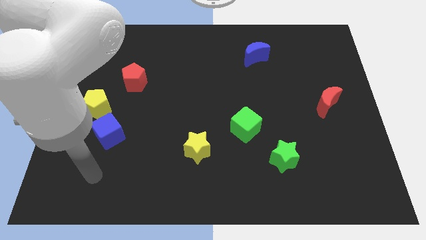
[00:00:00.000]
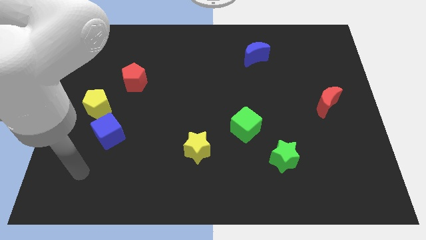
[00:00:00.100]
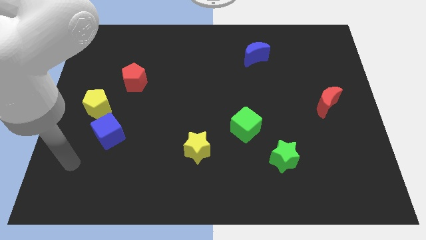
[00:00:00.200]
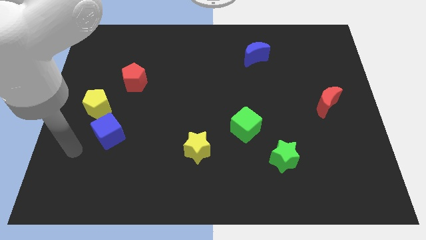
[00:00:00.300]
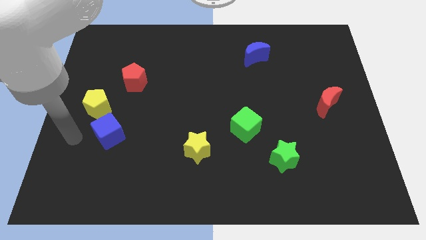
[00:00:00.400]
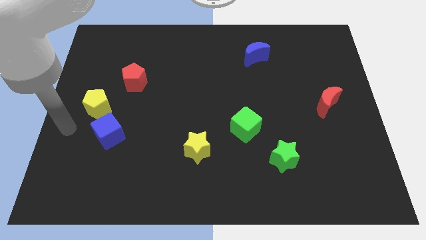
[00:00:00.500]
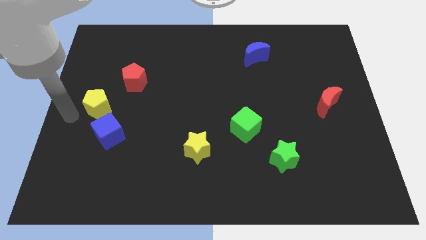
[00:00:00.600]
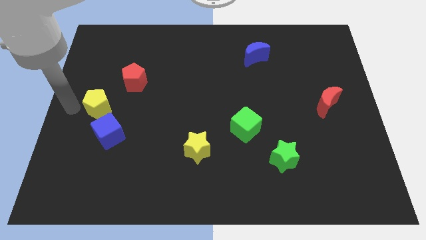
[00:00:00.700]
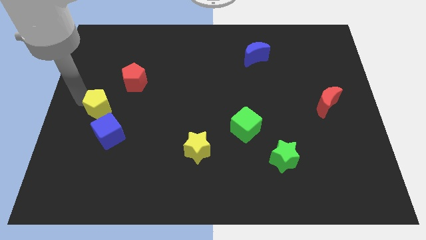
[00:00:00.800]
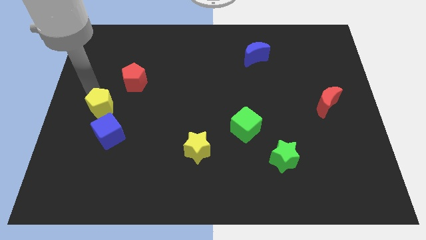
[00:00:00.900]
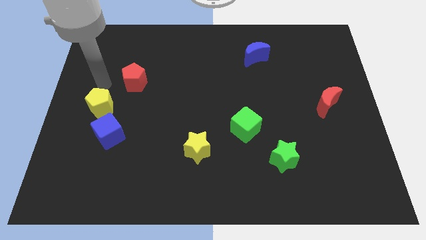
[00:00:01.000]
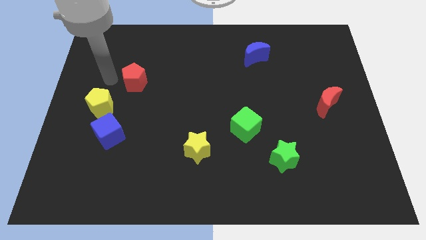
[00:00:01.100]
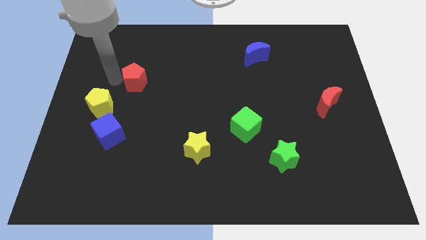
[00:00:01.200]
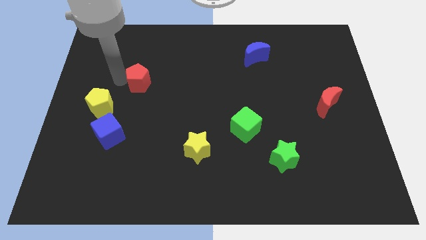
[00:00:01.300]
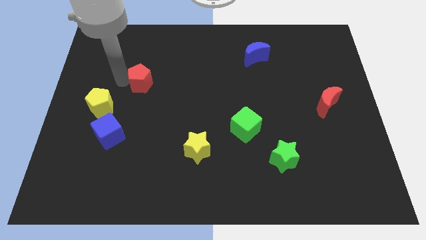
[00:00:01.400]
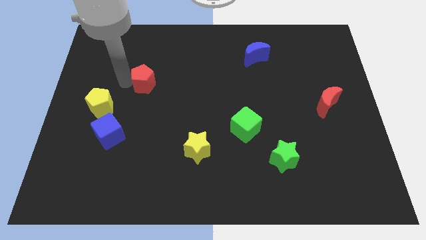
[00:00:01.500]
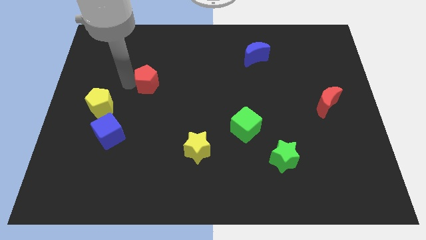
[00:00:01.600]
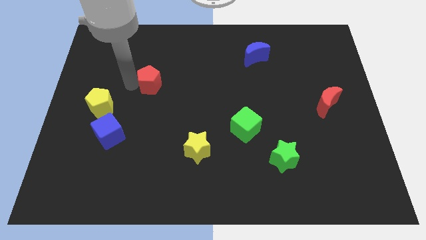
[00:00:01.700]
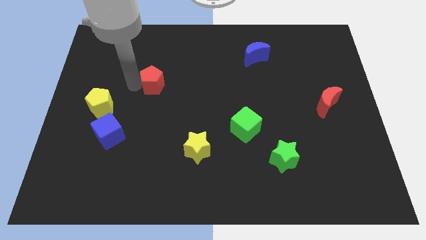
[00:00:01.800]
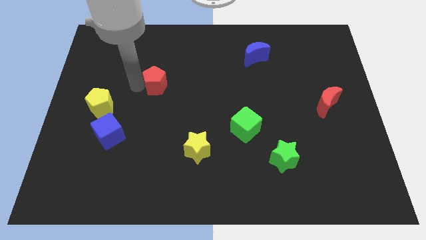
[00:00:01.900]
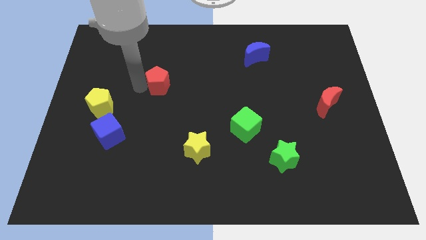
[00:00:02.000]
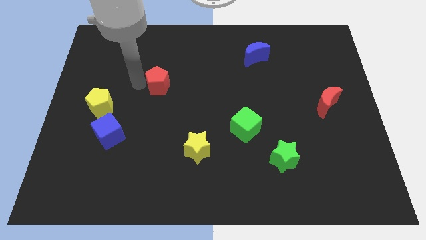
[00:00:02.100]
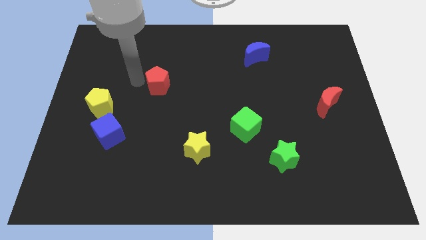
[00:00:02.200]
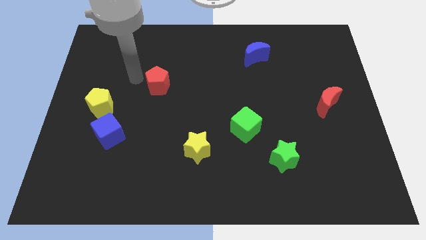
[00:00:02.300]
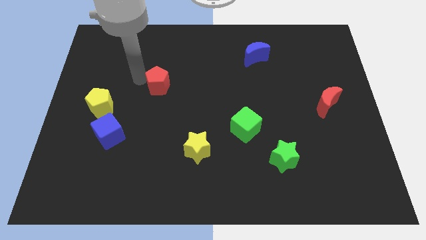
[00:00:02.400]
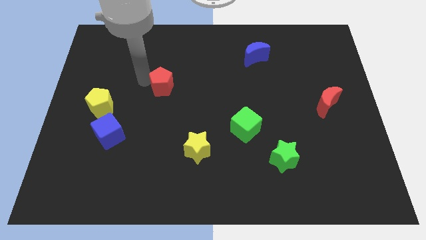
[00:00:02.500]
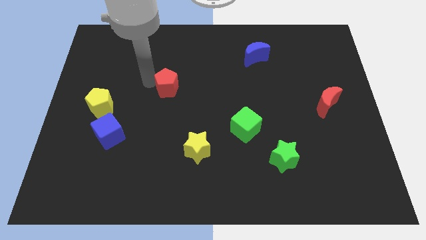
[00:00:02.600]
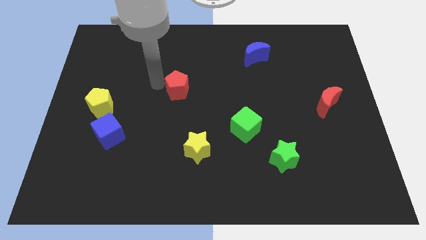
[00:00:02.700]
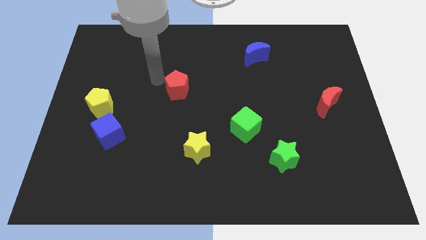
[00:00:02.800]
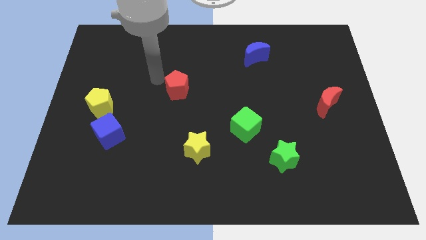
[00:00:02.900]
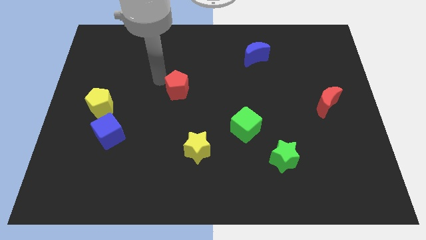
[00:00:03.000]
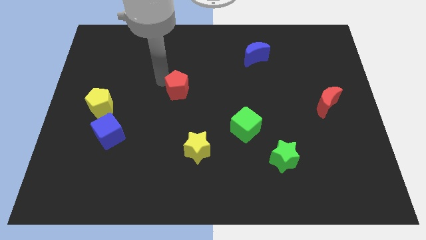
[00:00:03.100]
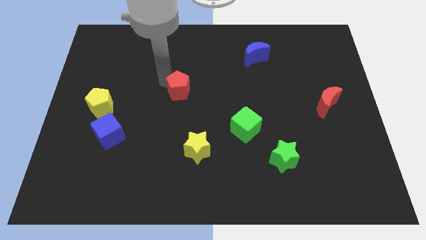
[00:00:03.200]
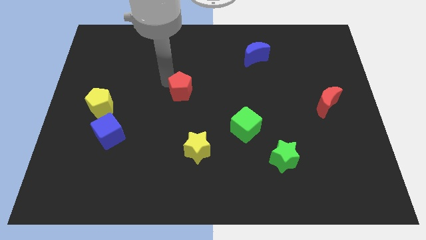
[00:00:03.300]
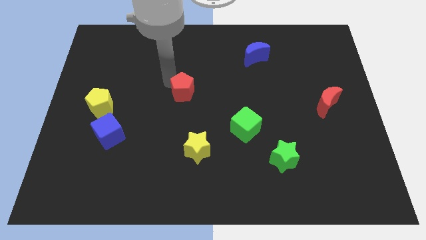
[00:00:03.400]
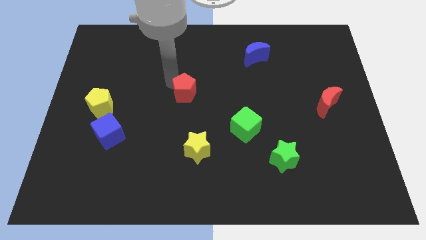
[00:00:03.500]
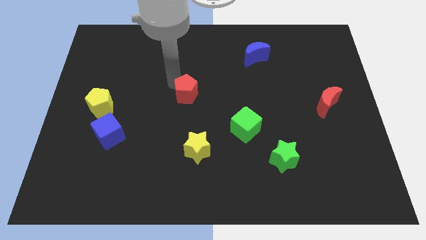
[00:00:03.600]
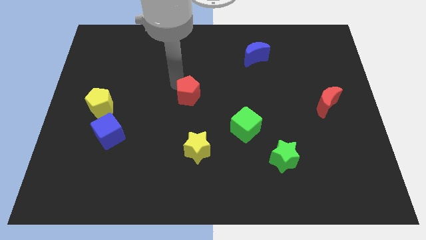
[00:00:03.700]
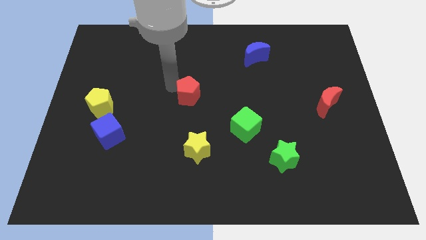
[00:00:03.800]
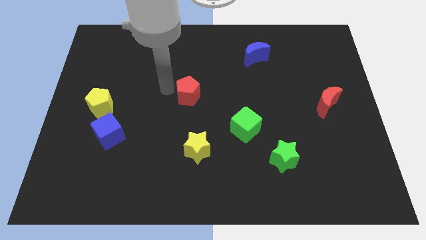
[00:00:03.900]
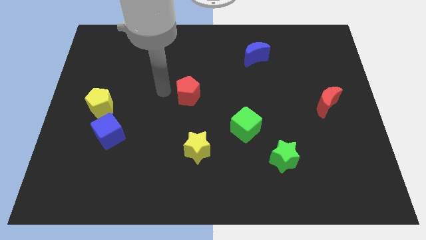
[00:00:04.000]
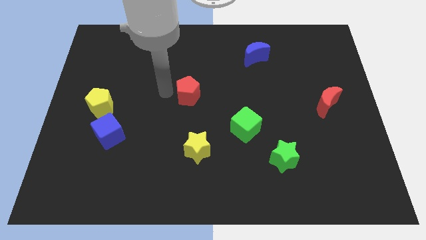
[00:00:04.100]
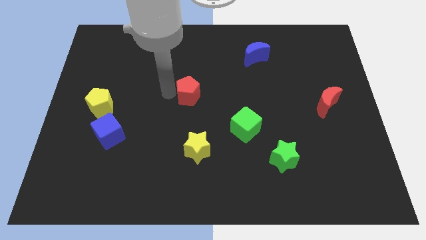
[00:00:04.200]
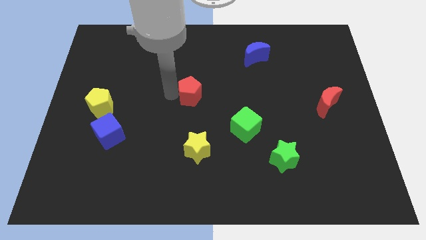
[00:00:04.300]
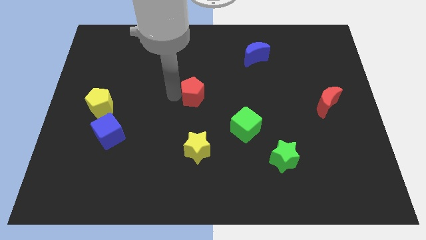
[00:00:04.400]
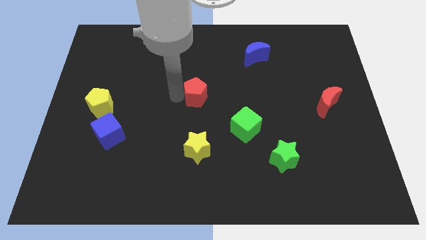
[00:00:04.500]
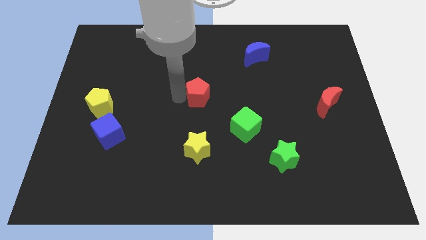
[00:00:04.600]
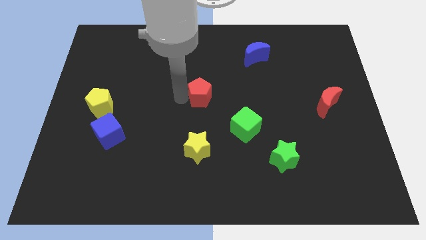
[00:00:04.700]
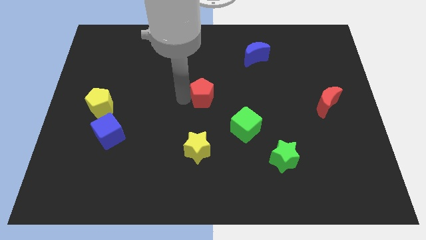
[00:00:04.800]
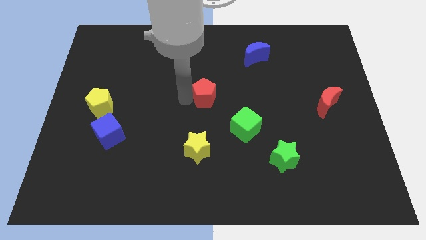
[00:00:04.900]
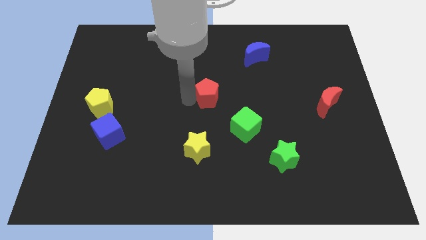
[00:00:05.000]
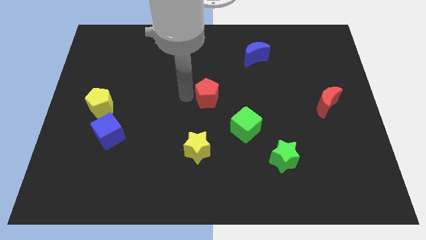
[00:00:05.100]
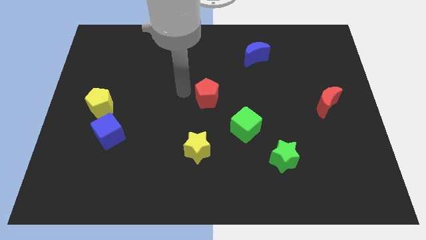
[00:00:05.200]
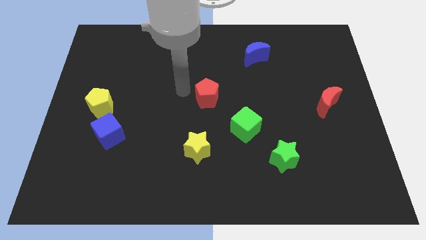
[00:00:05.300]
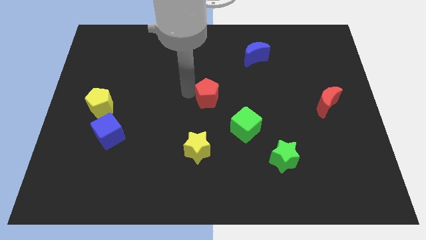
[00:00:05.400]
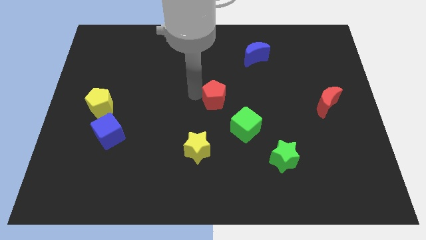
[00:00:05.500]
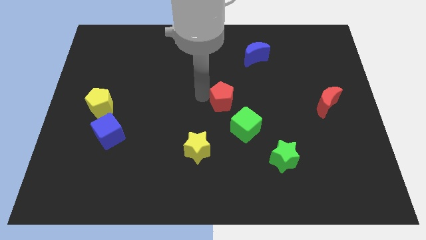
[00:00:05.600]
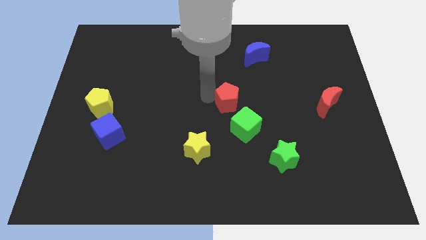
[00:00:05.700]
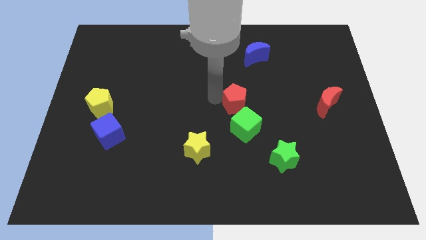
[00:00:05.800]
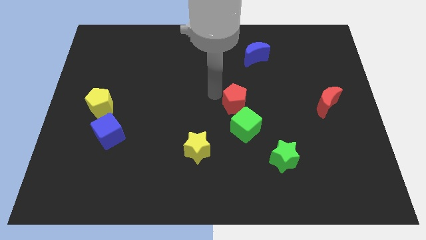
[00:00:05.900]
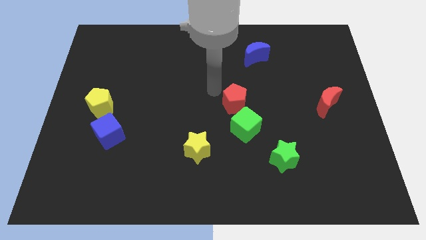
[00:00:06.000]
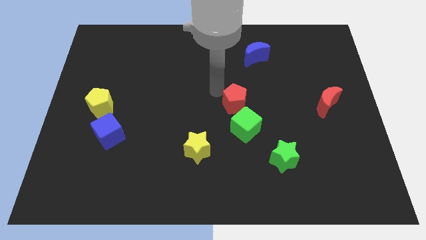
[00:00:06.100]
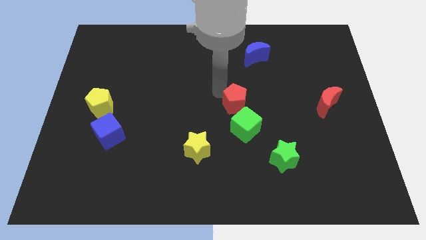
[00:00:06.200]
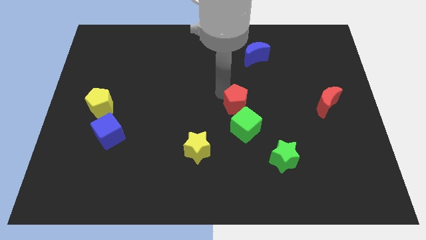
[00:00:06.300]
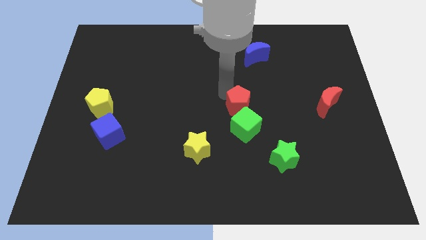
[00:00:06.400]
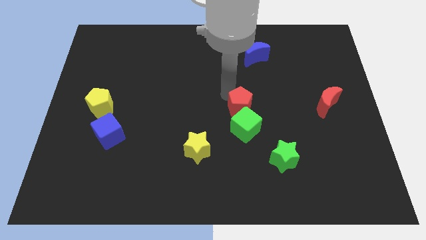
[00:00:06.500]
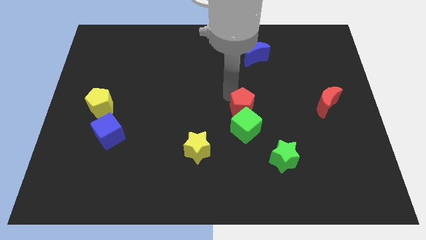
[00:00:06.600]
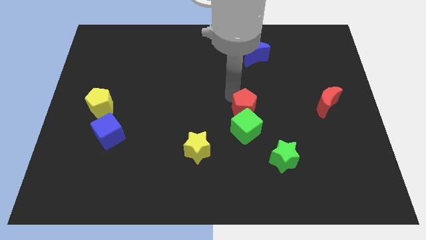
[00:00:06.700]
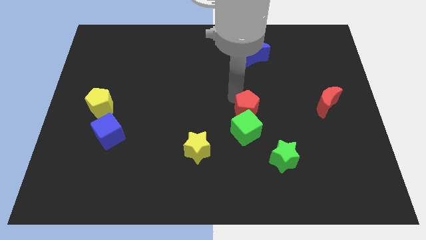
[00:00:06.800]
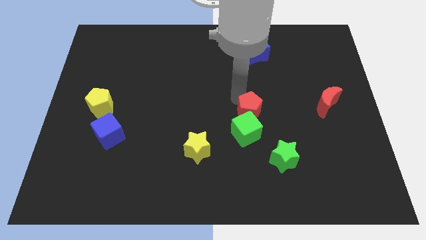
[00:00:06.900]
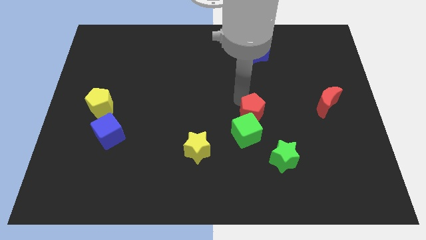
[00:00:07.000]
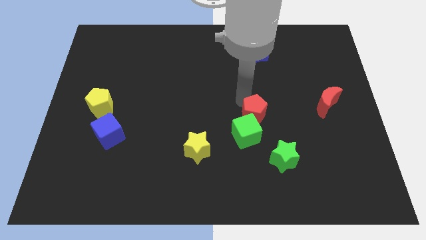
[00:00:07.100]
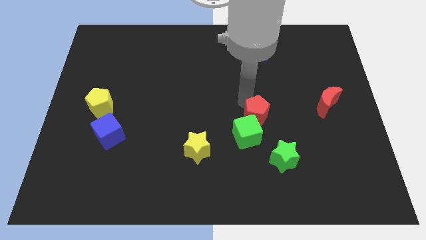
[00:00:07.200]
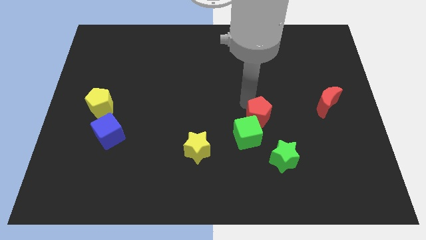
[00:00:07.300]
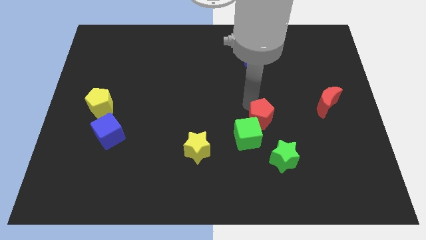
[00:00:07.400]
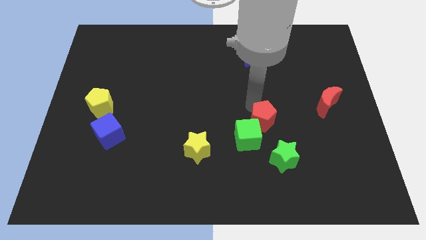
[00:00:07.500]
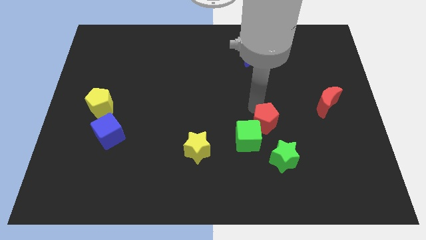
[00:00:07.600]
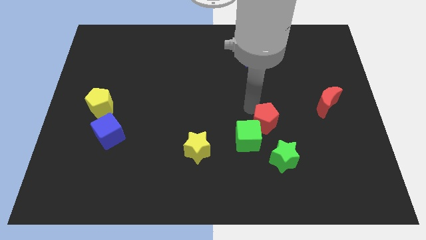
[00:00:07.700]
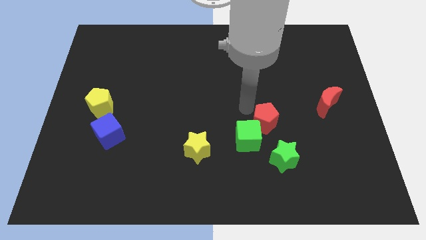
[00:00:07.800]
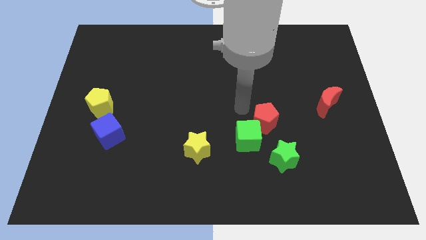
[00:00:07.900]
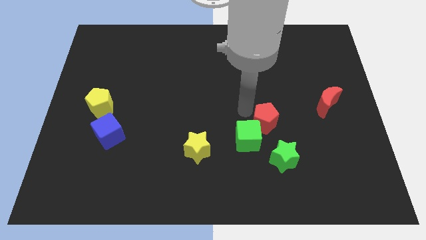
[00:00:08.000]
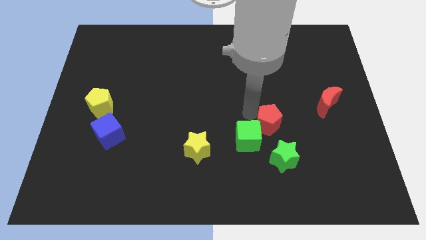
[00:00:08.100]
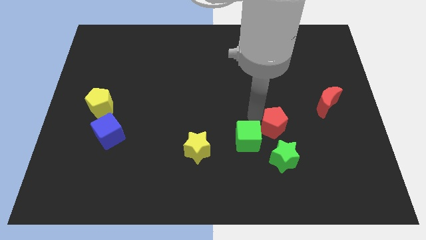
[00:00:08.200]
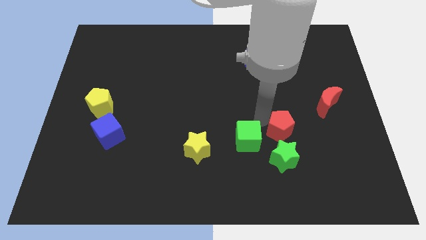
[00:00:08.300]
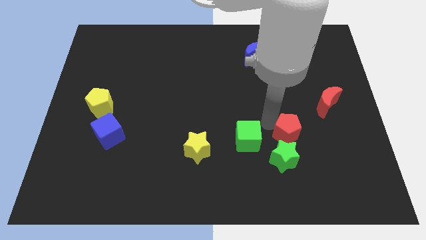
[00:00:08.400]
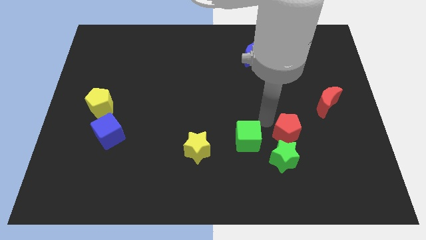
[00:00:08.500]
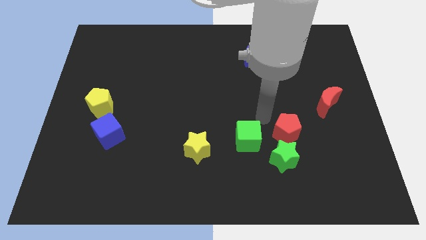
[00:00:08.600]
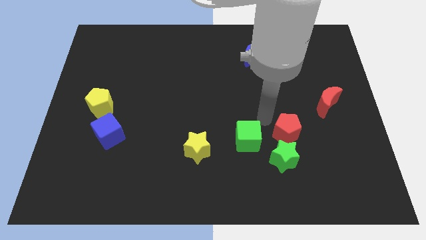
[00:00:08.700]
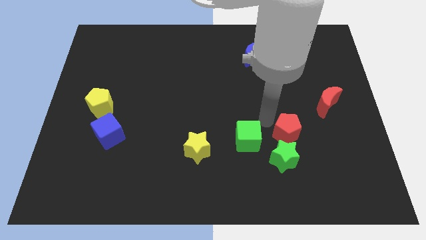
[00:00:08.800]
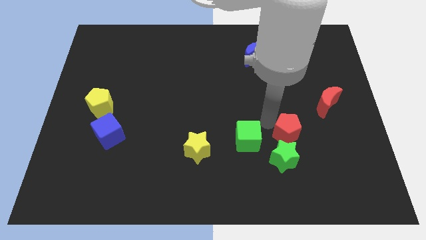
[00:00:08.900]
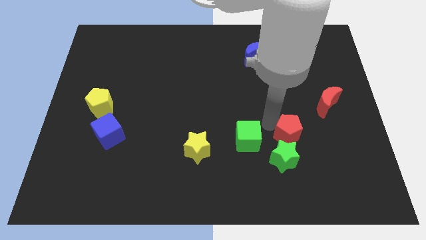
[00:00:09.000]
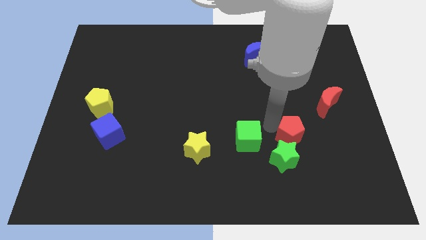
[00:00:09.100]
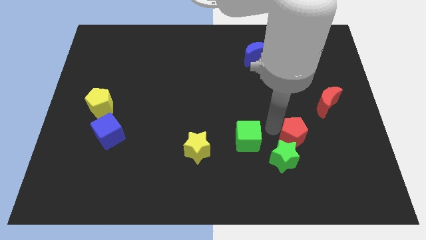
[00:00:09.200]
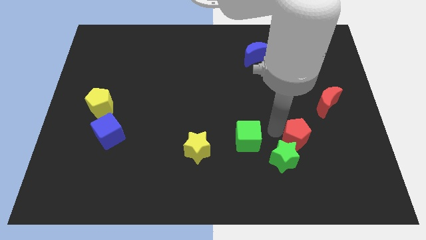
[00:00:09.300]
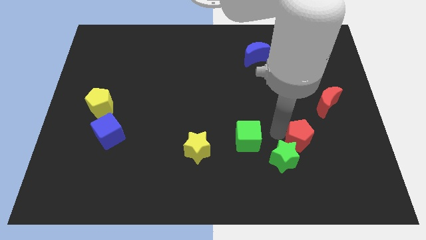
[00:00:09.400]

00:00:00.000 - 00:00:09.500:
slide the red pentagon to the right of the green star
